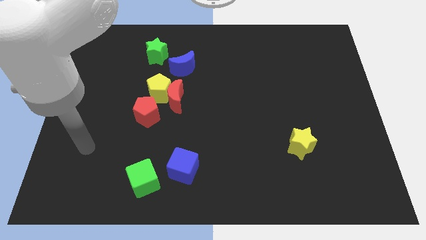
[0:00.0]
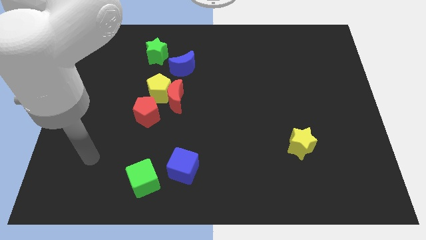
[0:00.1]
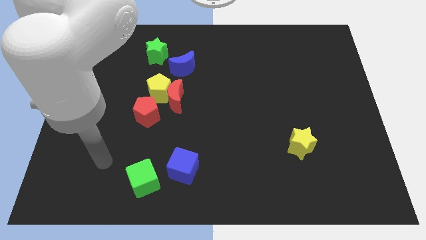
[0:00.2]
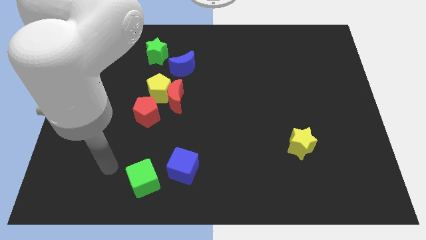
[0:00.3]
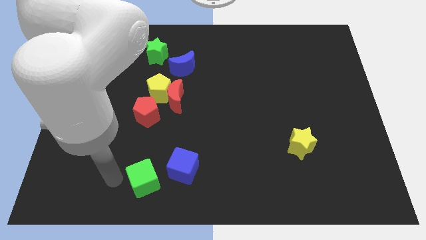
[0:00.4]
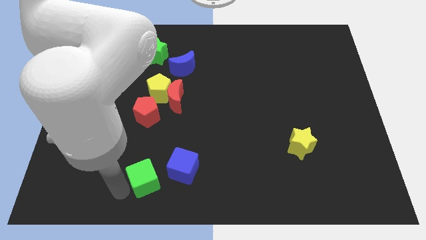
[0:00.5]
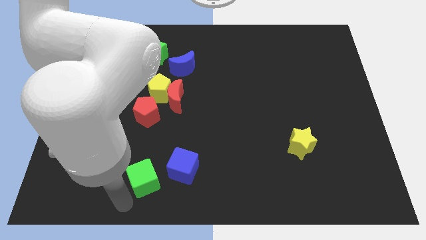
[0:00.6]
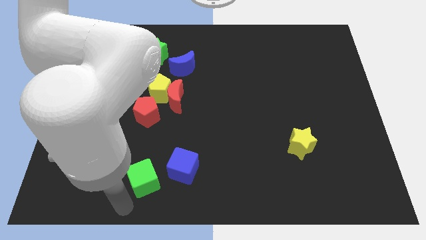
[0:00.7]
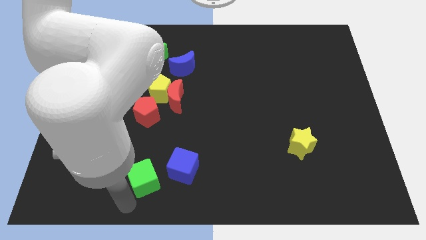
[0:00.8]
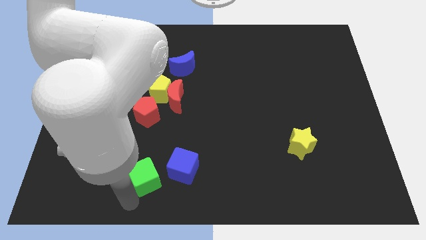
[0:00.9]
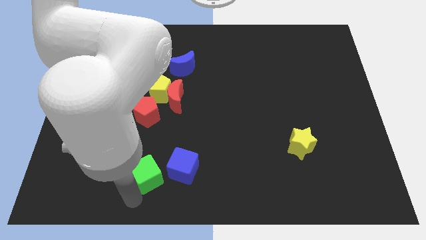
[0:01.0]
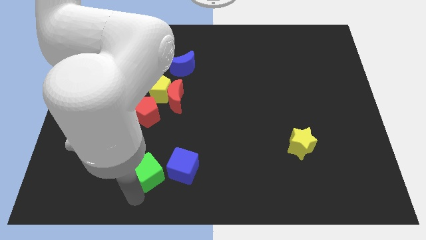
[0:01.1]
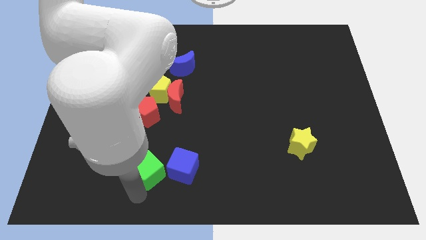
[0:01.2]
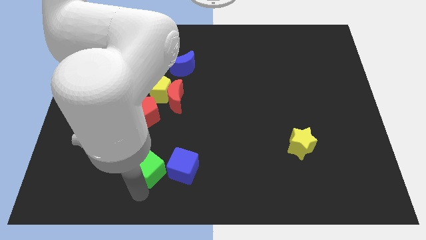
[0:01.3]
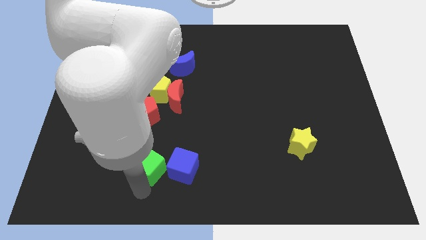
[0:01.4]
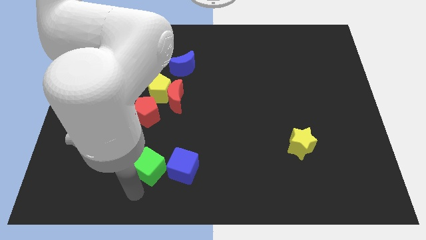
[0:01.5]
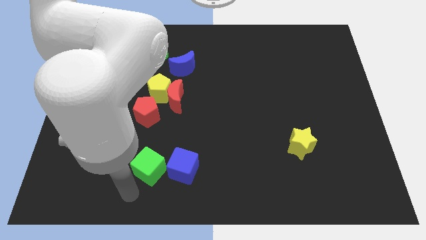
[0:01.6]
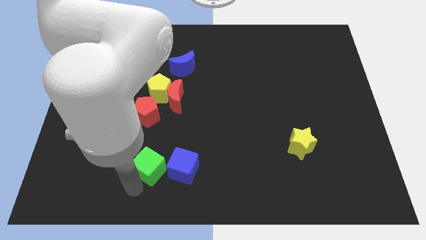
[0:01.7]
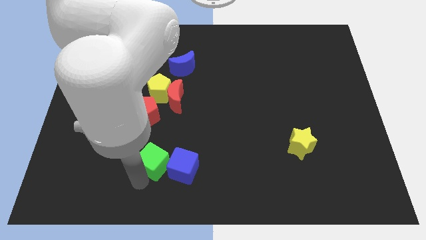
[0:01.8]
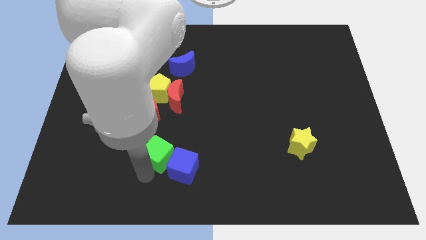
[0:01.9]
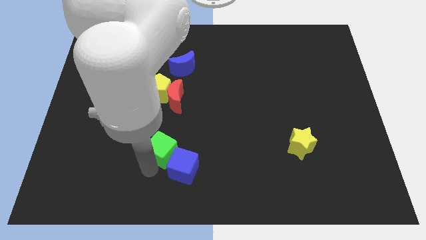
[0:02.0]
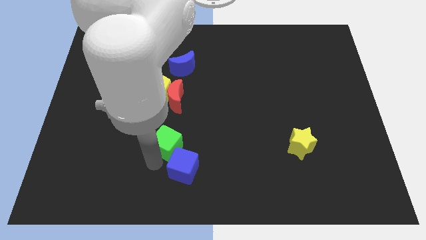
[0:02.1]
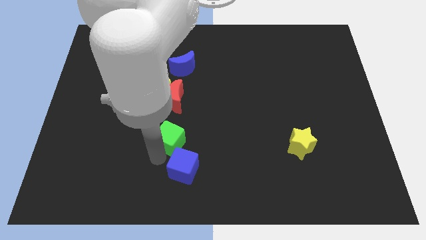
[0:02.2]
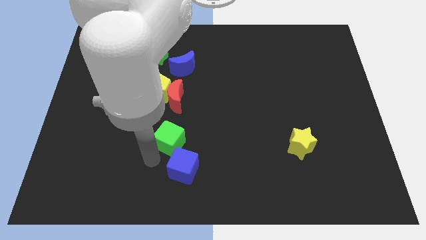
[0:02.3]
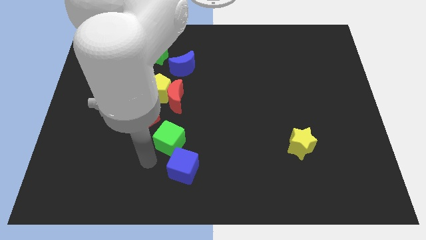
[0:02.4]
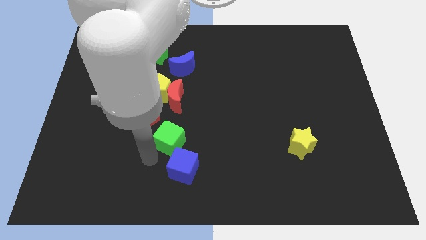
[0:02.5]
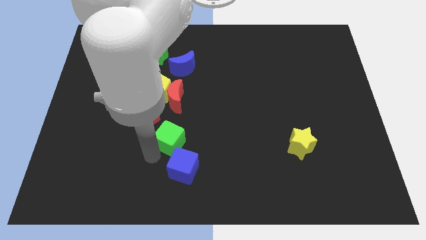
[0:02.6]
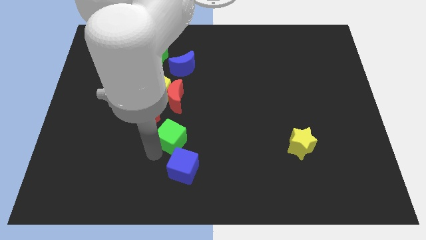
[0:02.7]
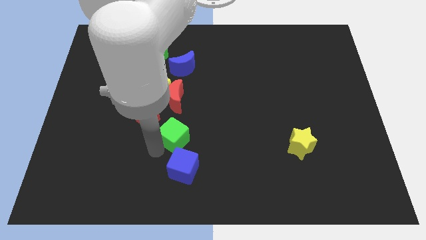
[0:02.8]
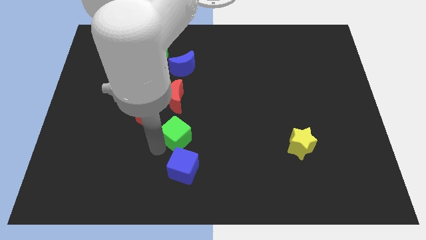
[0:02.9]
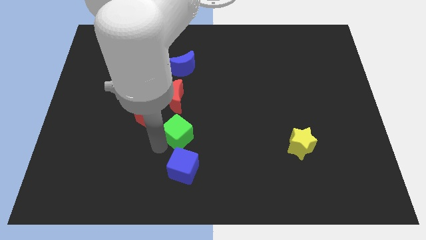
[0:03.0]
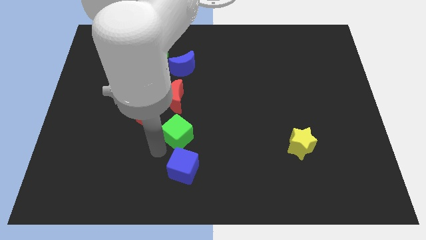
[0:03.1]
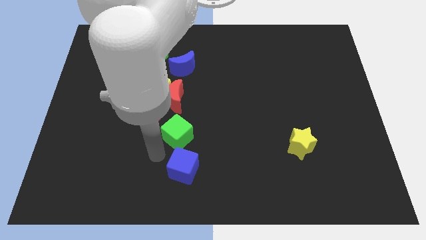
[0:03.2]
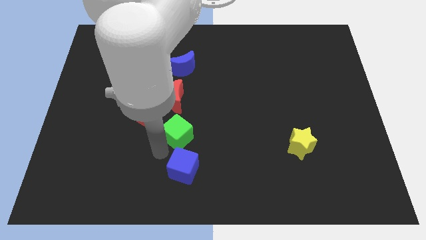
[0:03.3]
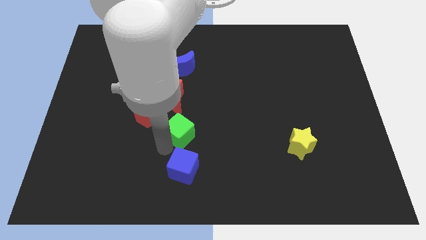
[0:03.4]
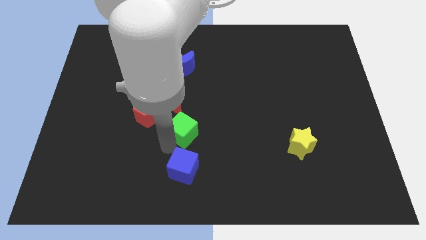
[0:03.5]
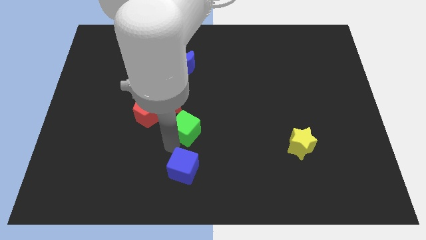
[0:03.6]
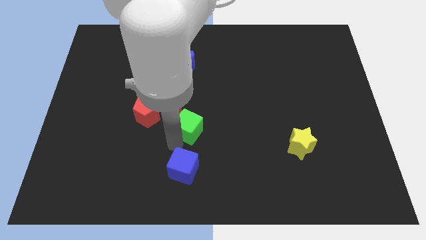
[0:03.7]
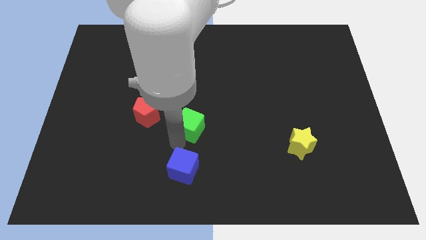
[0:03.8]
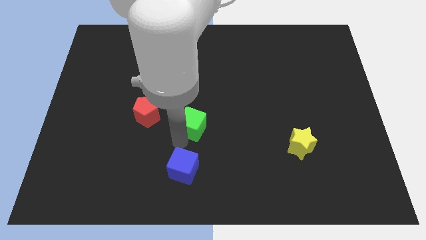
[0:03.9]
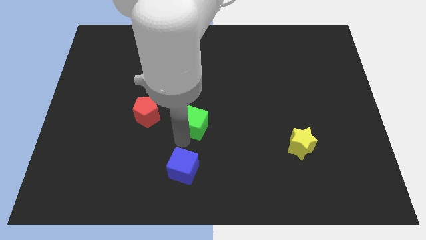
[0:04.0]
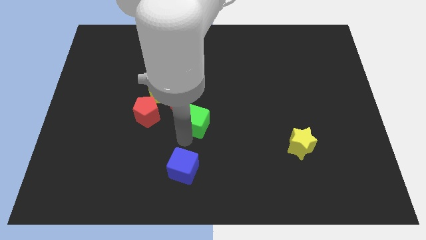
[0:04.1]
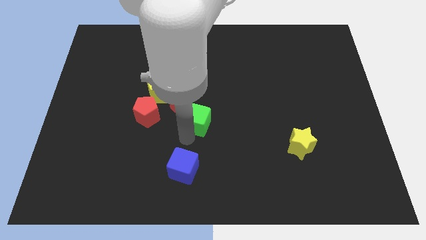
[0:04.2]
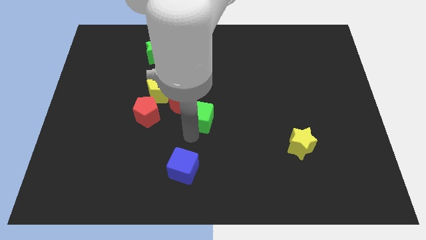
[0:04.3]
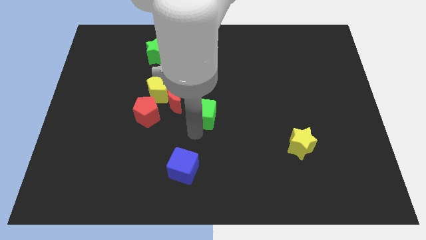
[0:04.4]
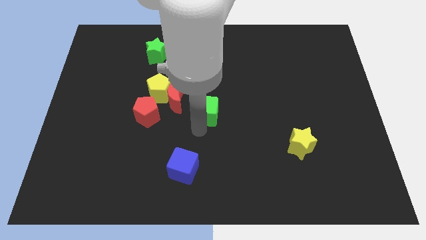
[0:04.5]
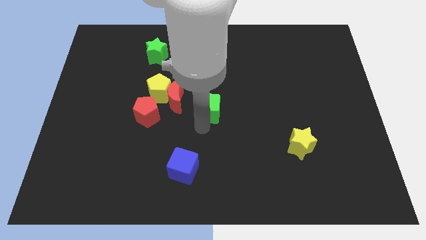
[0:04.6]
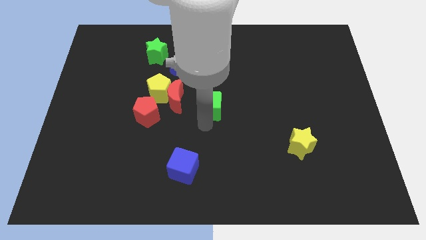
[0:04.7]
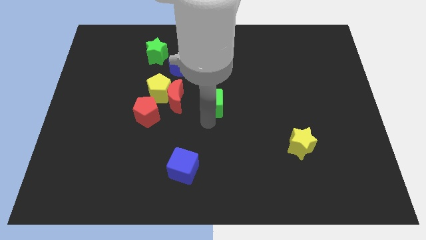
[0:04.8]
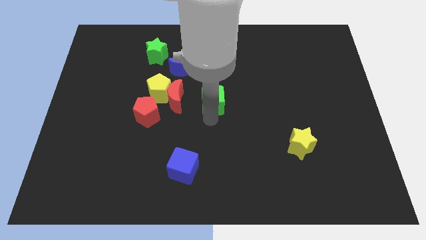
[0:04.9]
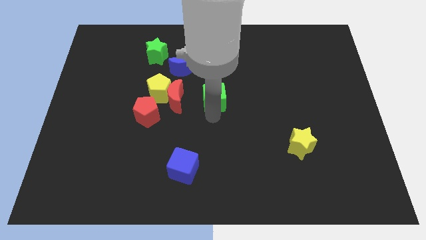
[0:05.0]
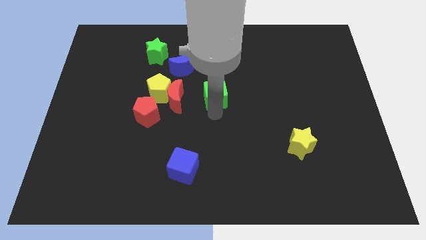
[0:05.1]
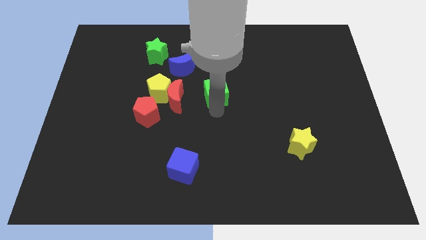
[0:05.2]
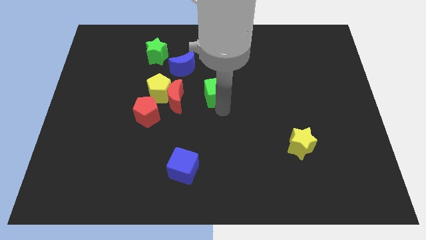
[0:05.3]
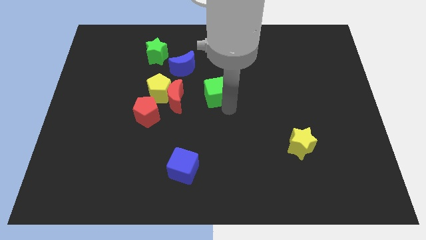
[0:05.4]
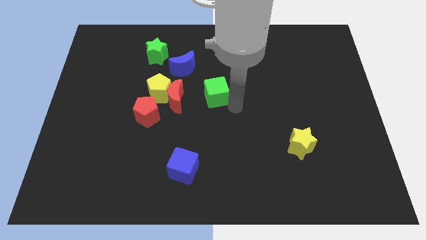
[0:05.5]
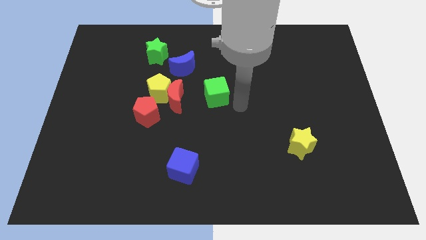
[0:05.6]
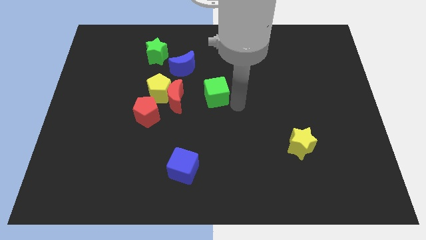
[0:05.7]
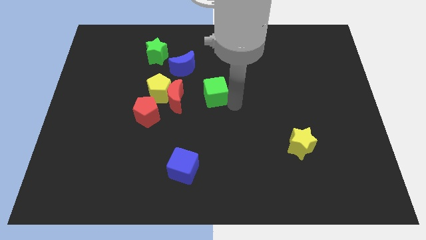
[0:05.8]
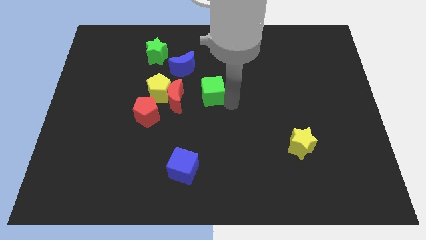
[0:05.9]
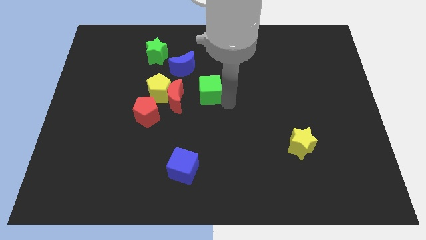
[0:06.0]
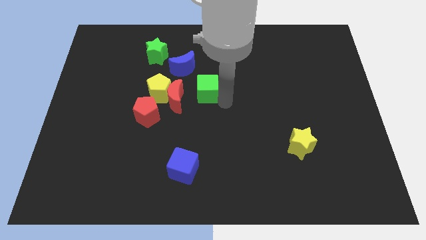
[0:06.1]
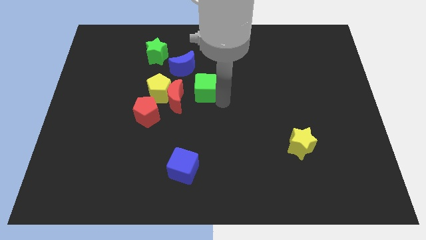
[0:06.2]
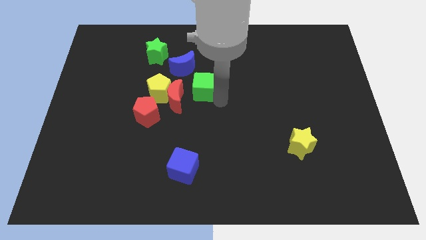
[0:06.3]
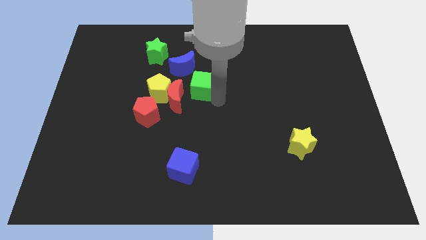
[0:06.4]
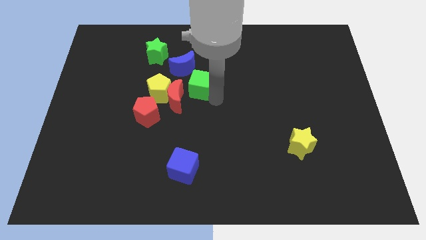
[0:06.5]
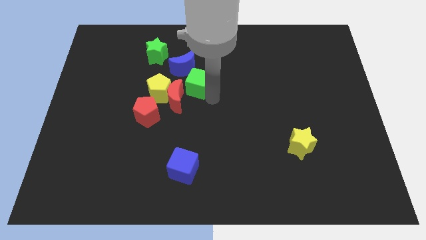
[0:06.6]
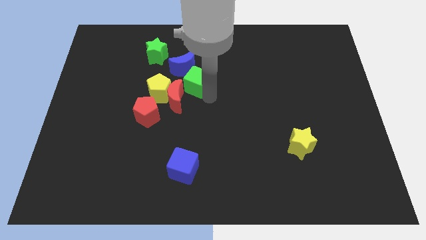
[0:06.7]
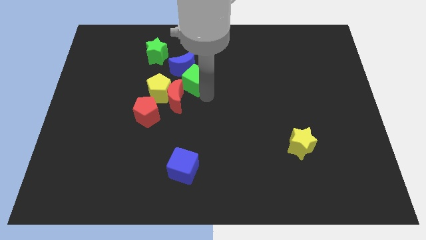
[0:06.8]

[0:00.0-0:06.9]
slide the green cube towards the blue moon
